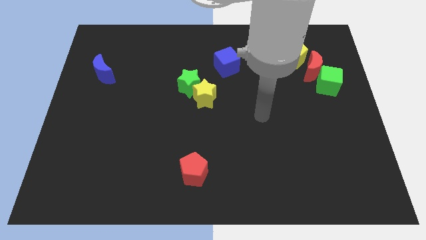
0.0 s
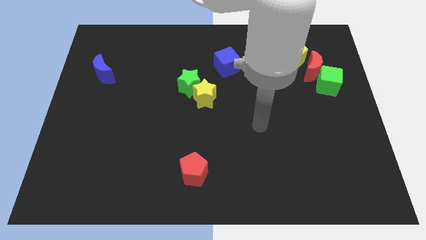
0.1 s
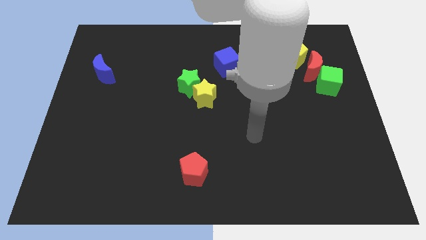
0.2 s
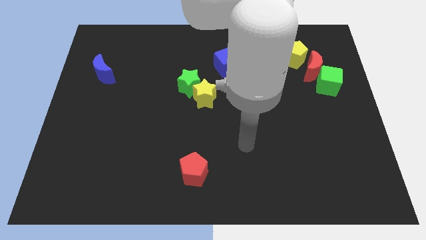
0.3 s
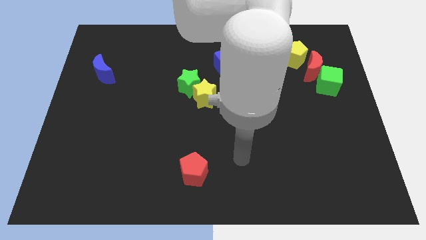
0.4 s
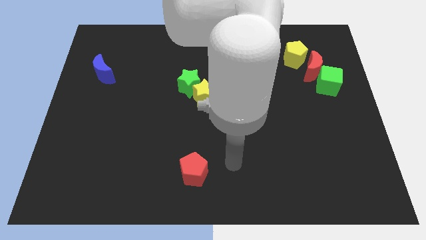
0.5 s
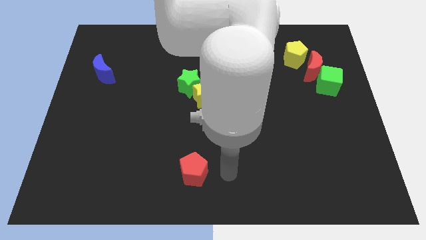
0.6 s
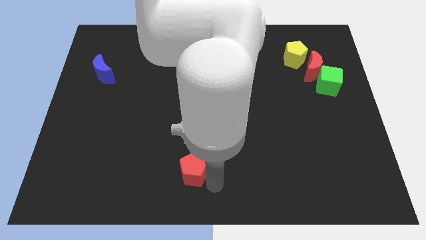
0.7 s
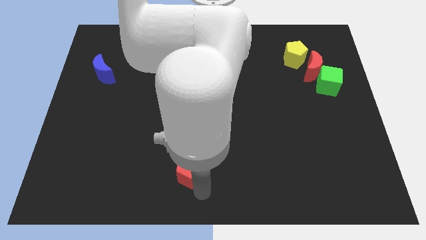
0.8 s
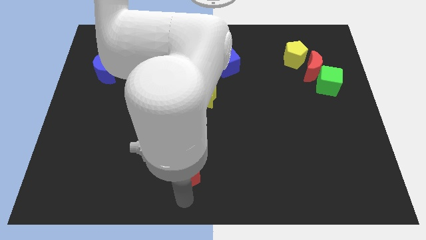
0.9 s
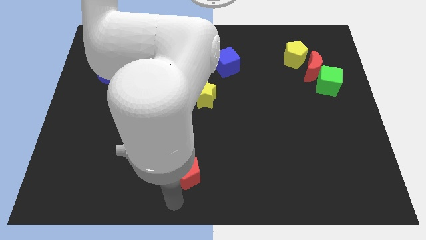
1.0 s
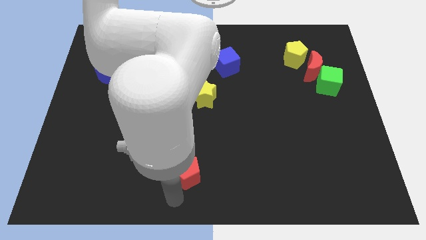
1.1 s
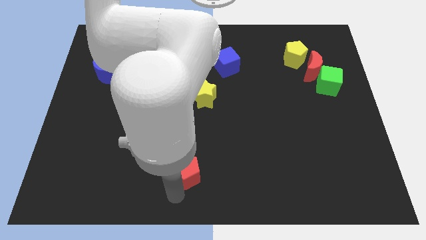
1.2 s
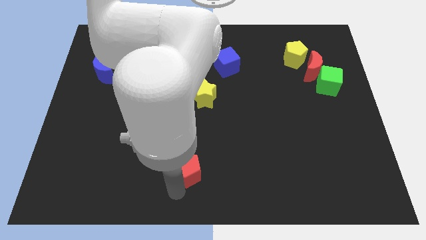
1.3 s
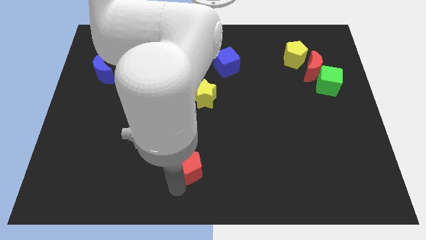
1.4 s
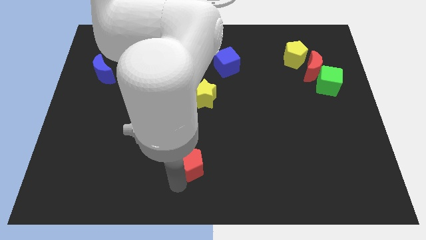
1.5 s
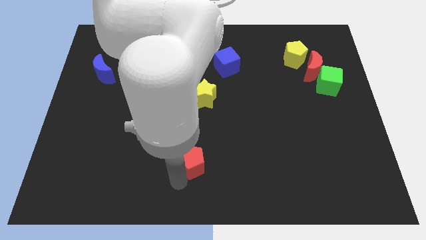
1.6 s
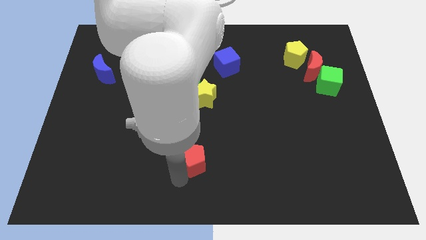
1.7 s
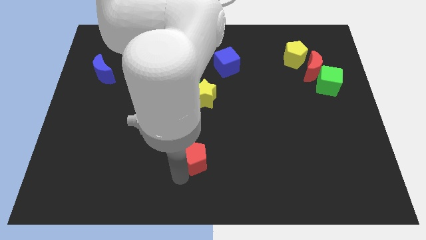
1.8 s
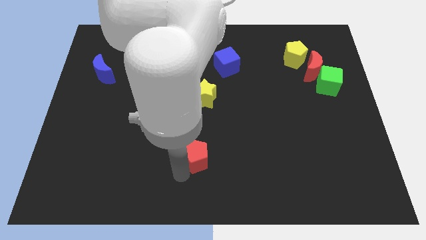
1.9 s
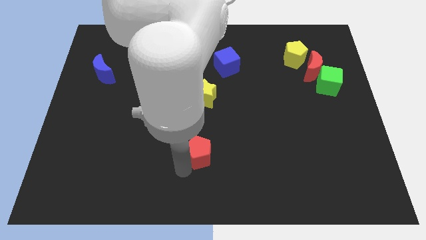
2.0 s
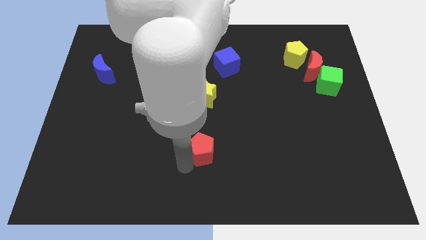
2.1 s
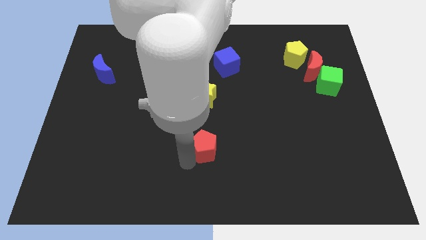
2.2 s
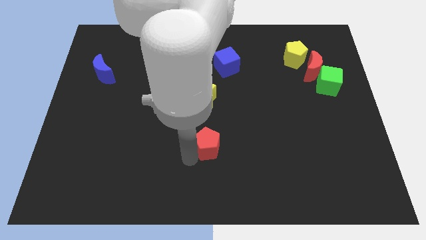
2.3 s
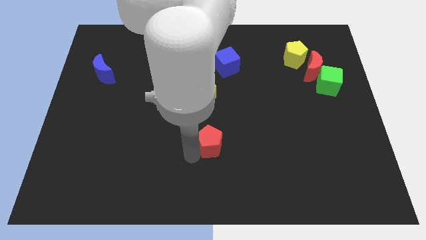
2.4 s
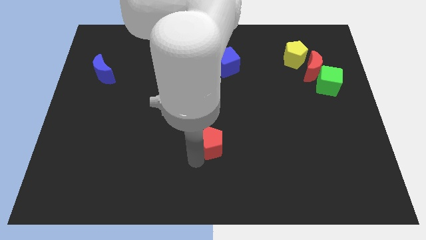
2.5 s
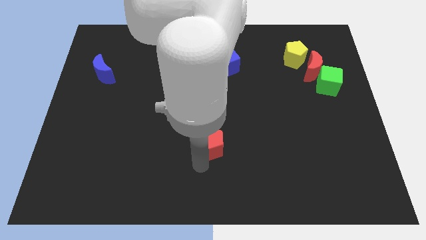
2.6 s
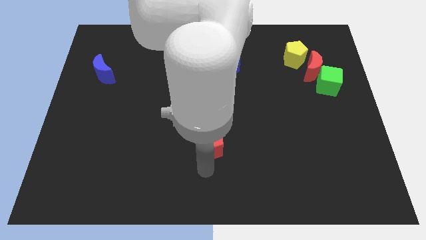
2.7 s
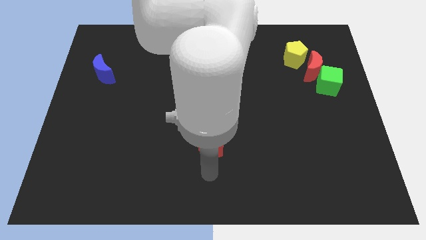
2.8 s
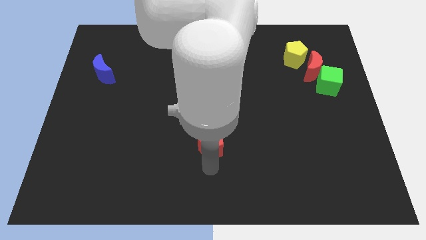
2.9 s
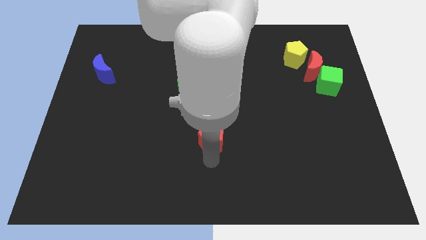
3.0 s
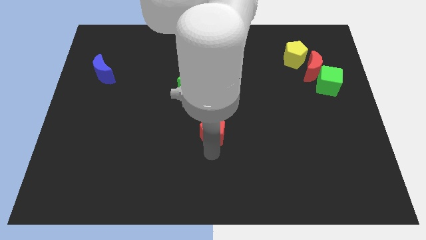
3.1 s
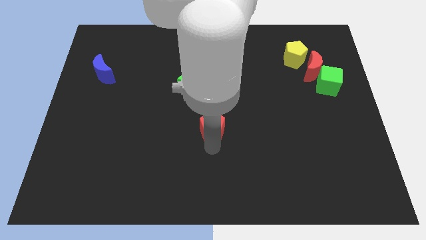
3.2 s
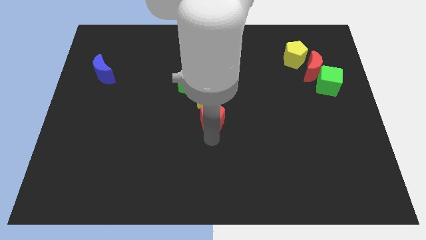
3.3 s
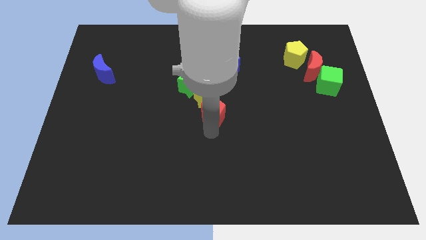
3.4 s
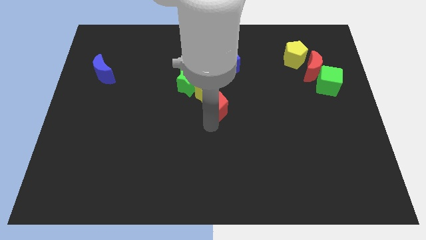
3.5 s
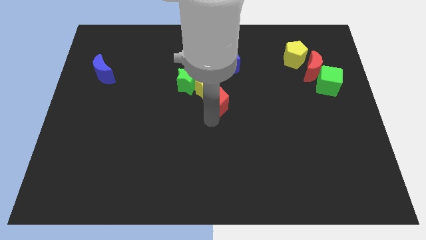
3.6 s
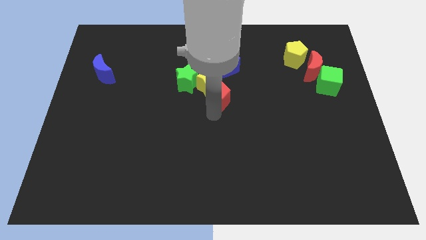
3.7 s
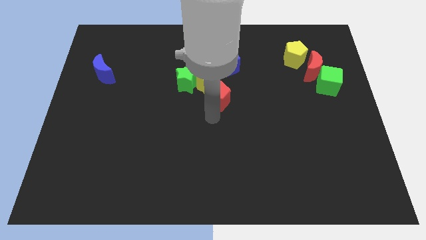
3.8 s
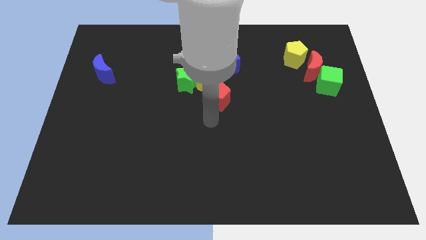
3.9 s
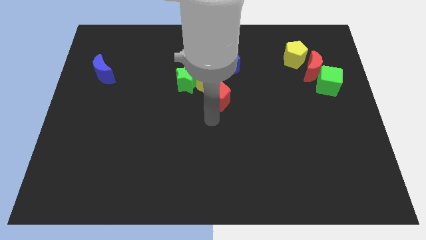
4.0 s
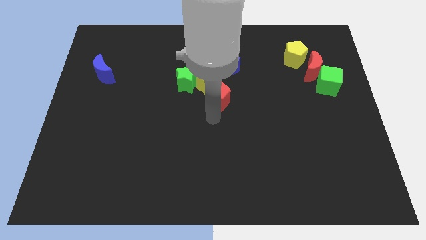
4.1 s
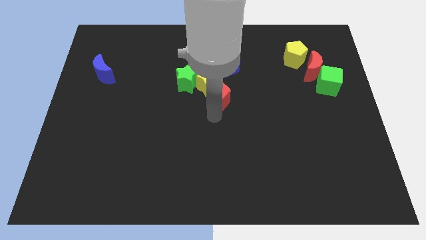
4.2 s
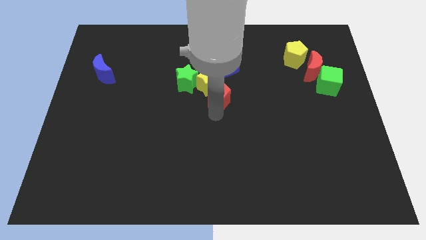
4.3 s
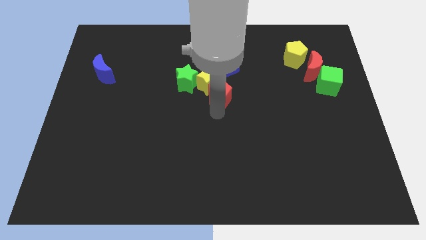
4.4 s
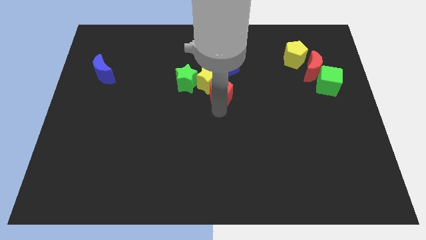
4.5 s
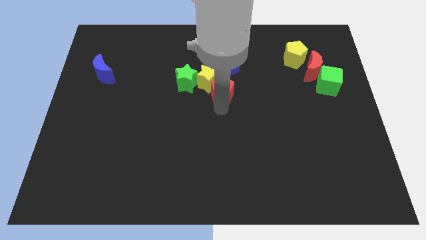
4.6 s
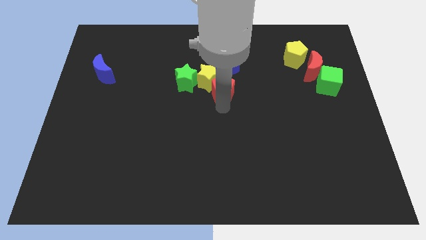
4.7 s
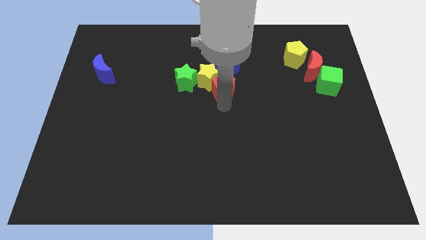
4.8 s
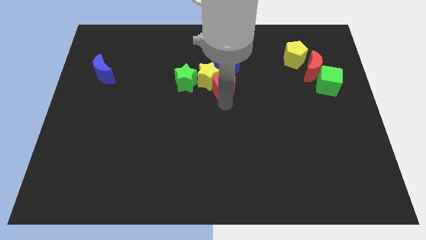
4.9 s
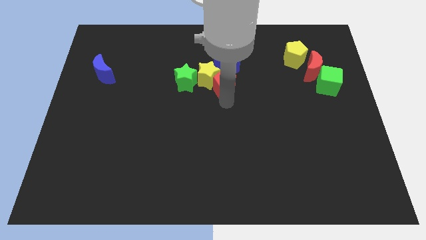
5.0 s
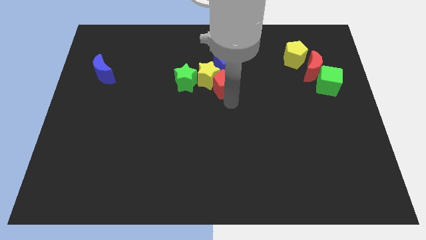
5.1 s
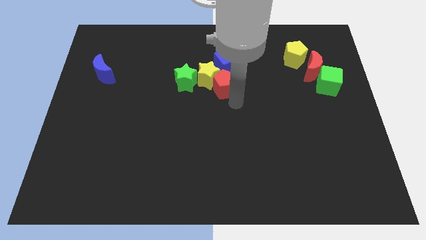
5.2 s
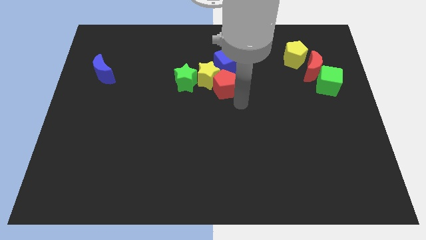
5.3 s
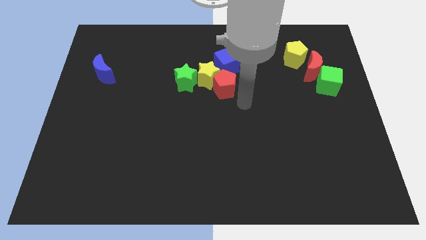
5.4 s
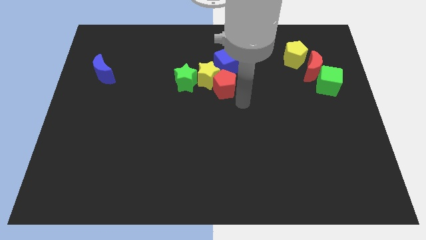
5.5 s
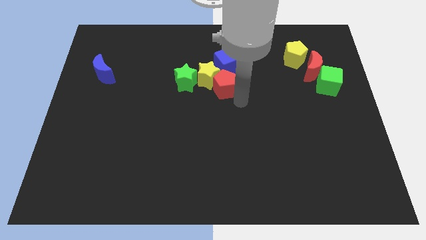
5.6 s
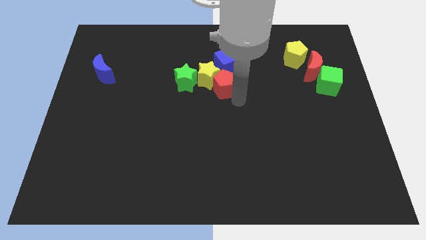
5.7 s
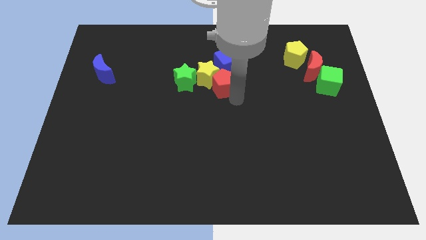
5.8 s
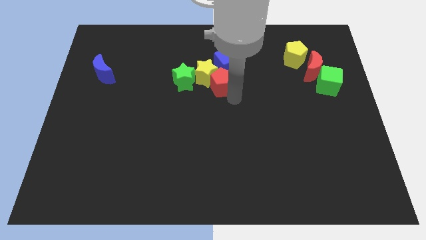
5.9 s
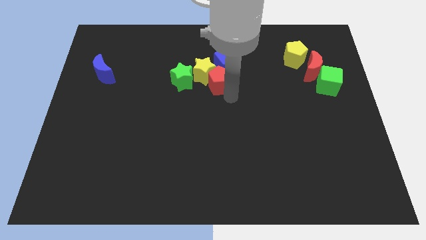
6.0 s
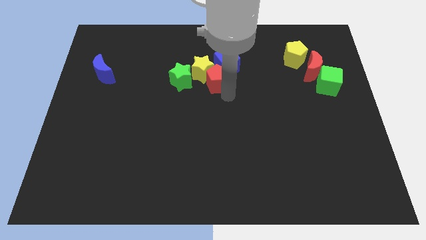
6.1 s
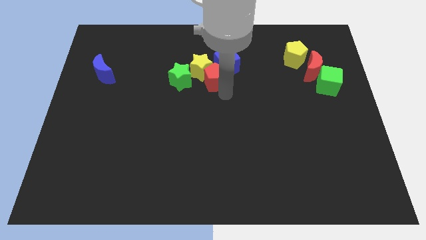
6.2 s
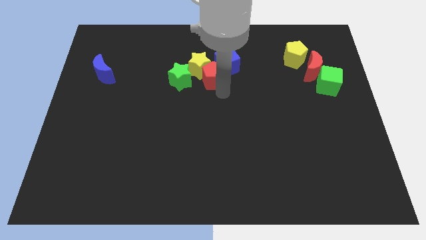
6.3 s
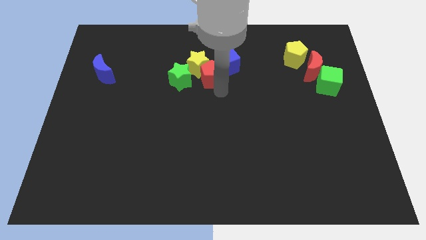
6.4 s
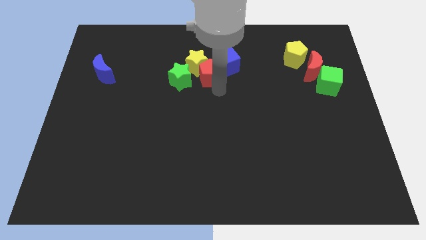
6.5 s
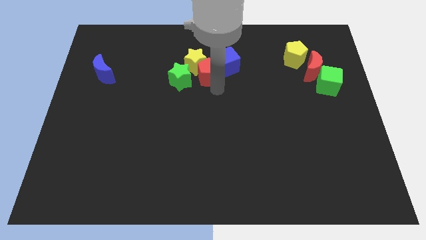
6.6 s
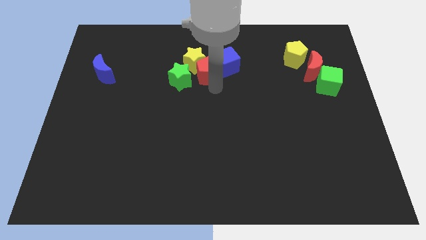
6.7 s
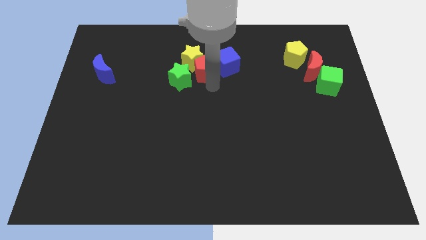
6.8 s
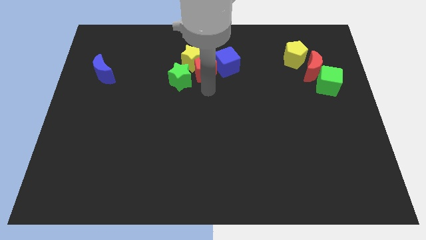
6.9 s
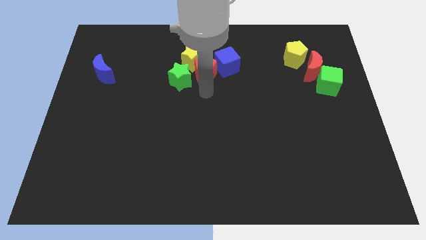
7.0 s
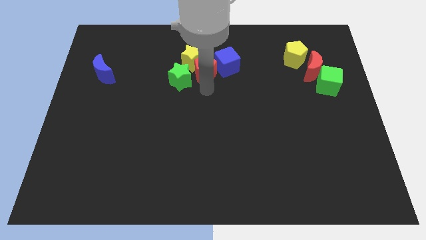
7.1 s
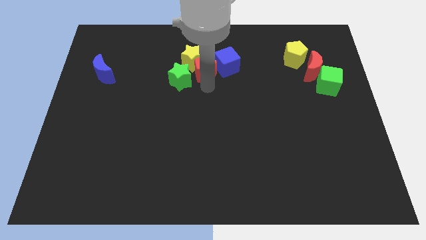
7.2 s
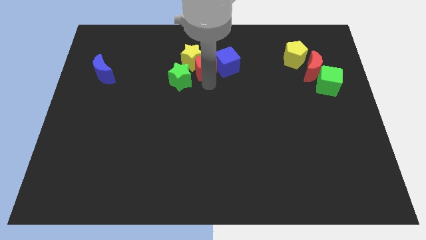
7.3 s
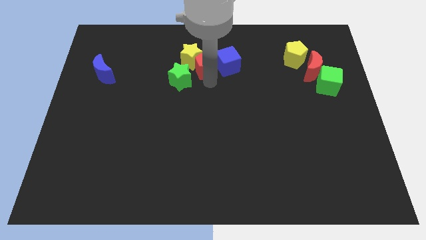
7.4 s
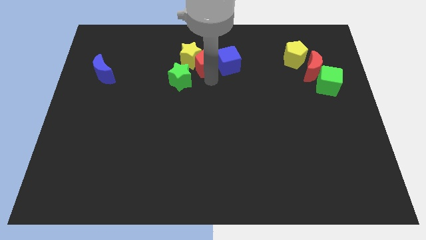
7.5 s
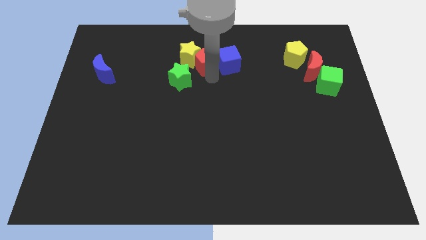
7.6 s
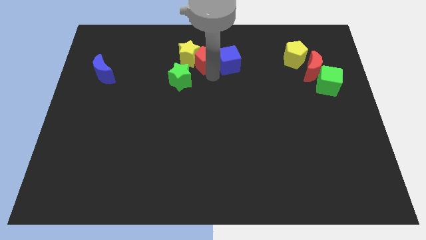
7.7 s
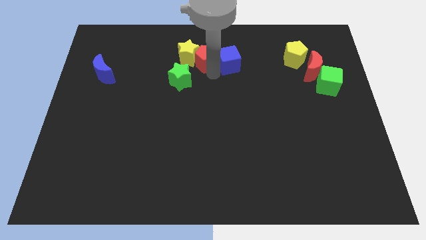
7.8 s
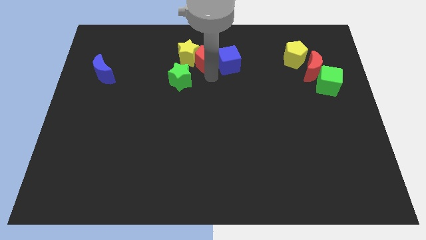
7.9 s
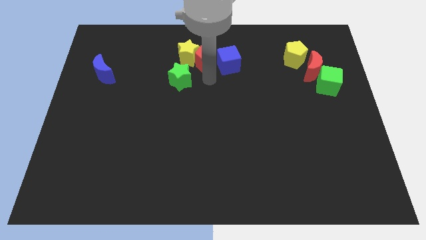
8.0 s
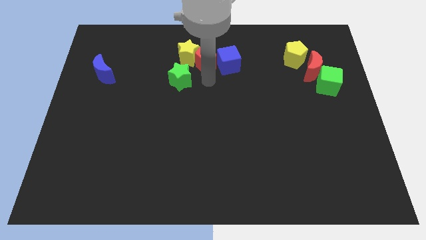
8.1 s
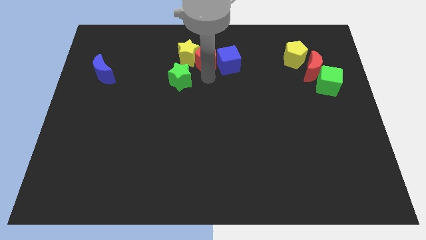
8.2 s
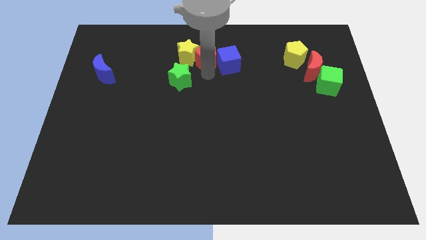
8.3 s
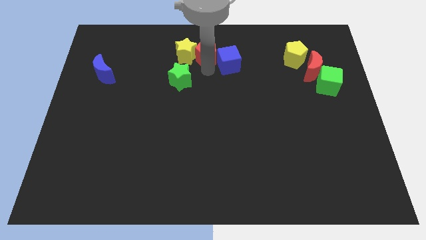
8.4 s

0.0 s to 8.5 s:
move the red pentagon to the top side
